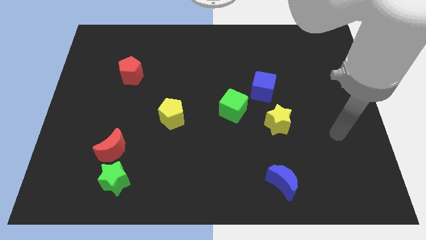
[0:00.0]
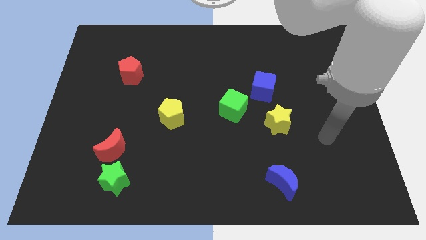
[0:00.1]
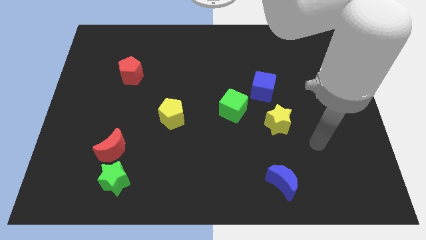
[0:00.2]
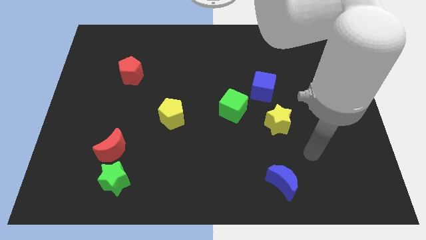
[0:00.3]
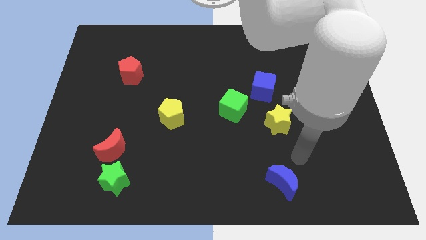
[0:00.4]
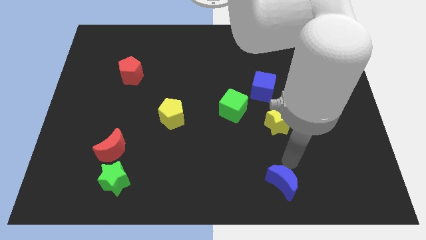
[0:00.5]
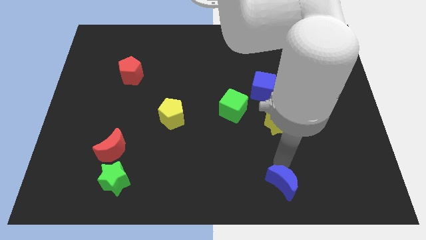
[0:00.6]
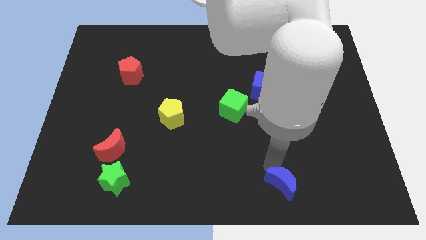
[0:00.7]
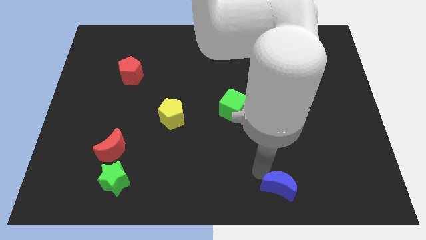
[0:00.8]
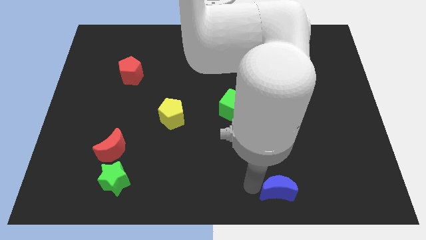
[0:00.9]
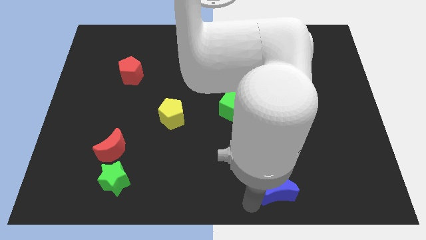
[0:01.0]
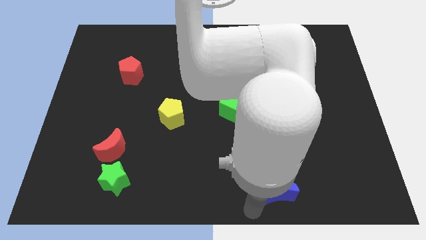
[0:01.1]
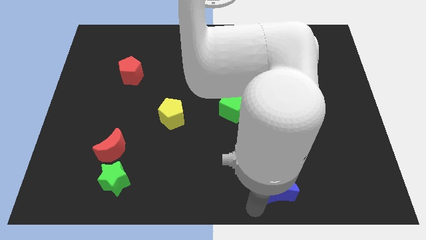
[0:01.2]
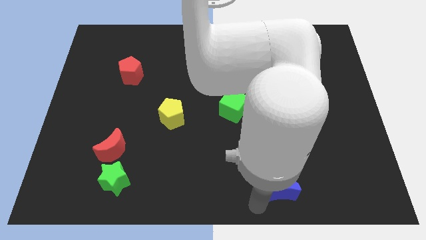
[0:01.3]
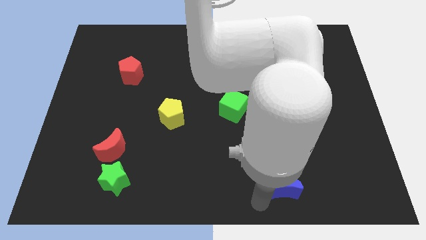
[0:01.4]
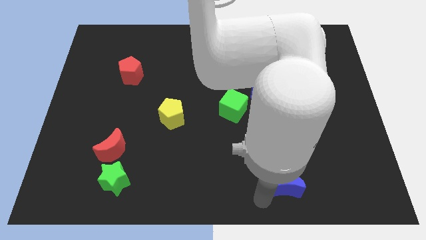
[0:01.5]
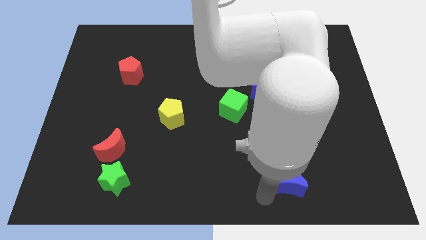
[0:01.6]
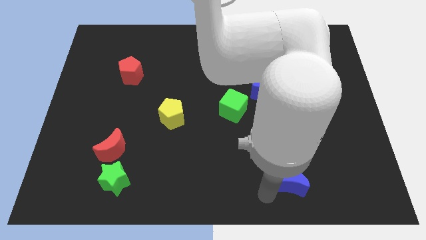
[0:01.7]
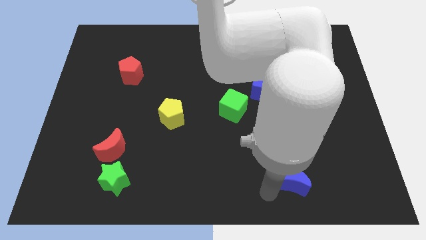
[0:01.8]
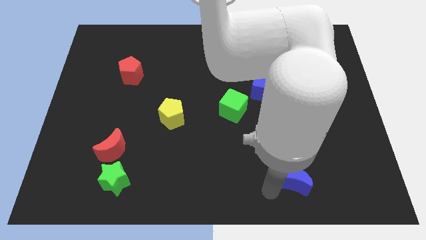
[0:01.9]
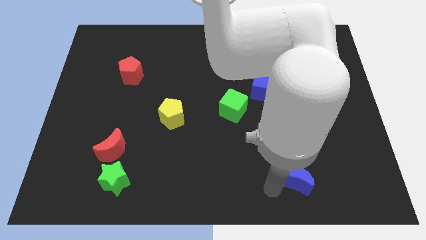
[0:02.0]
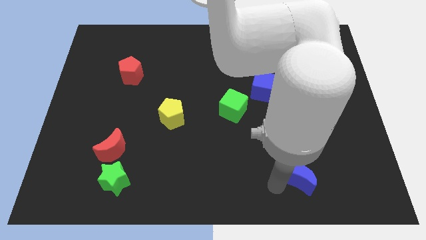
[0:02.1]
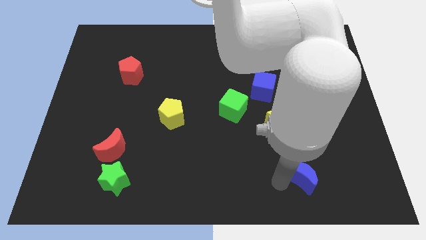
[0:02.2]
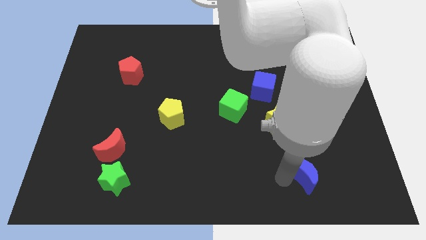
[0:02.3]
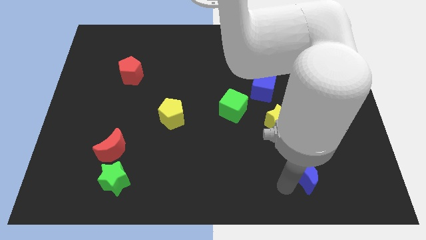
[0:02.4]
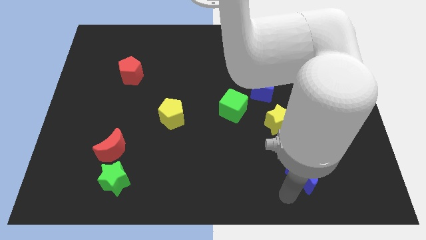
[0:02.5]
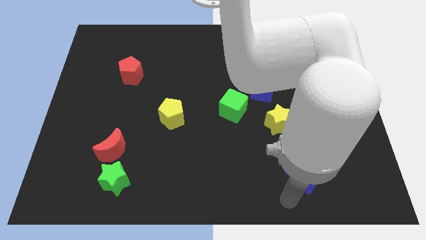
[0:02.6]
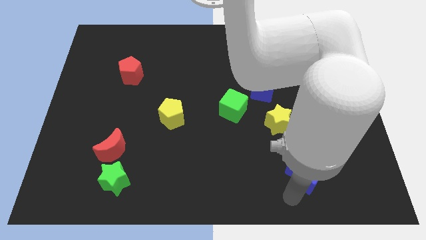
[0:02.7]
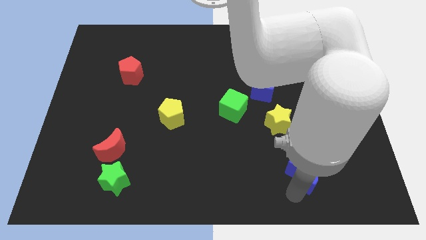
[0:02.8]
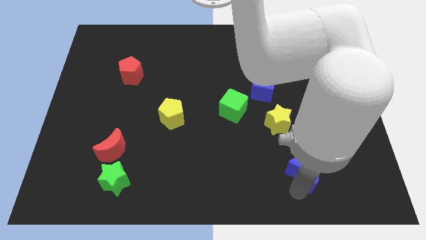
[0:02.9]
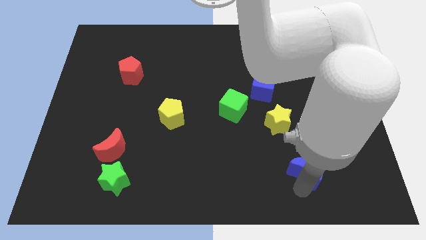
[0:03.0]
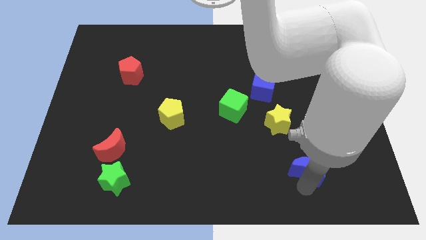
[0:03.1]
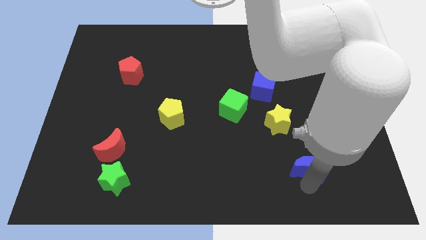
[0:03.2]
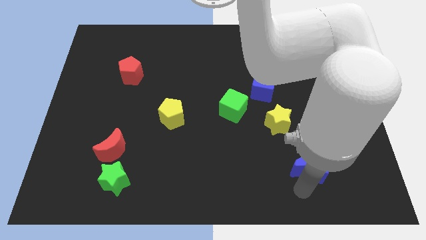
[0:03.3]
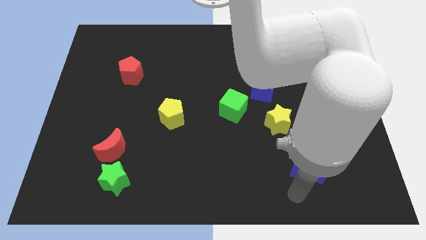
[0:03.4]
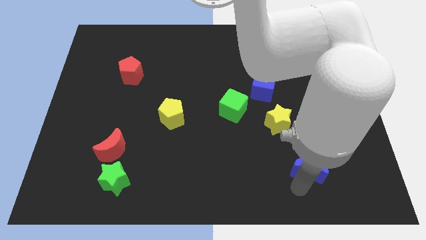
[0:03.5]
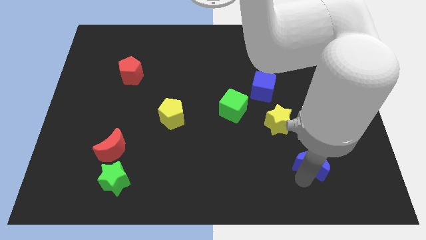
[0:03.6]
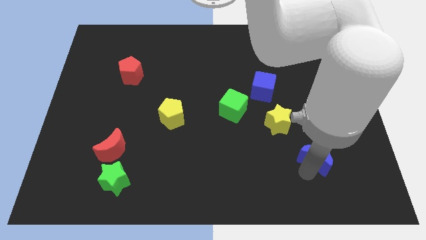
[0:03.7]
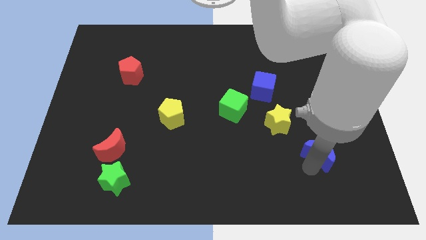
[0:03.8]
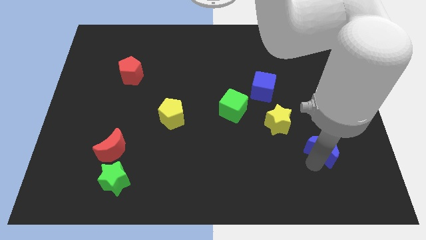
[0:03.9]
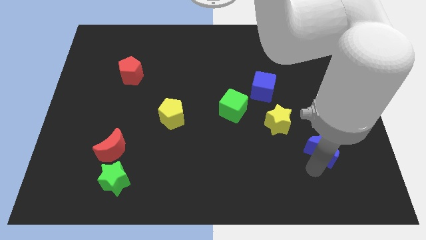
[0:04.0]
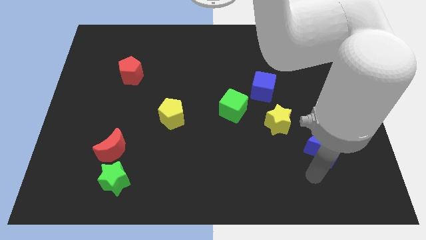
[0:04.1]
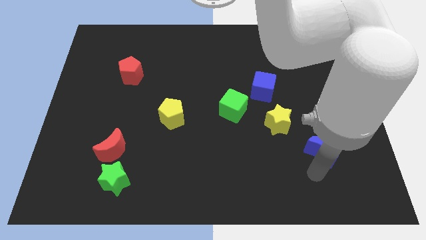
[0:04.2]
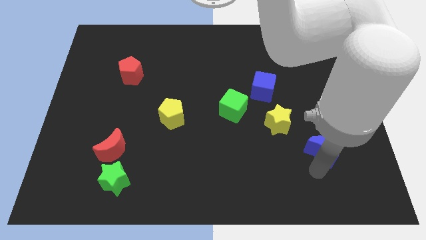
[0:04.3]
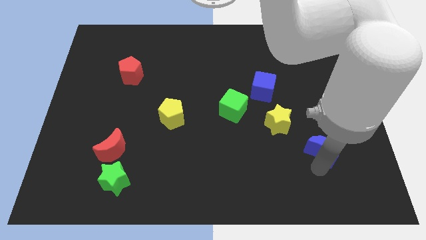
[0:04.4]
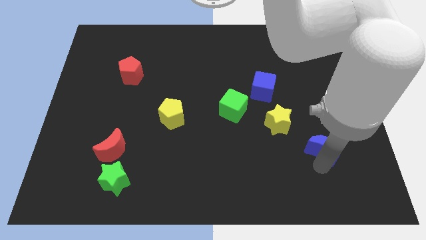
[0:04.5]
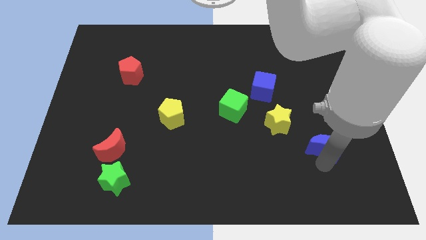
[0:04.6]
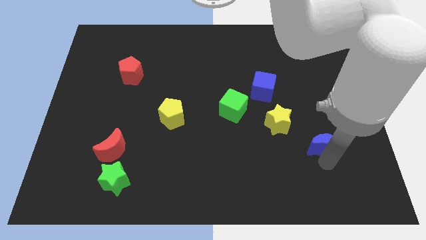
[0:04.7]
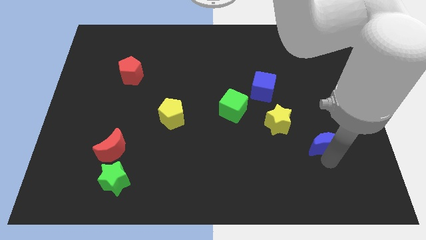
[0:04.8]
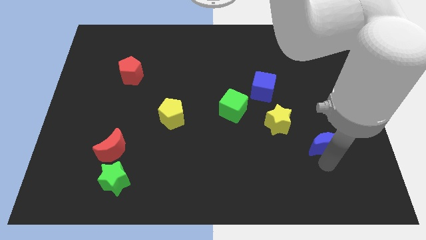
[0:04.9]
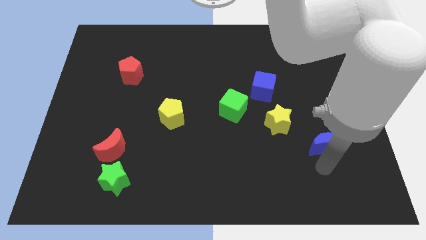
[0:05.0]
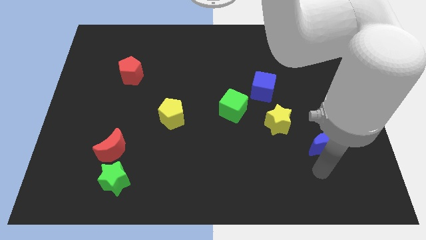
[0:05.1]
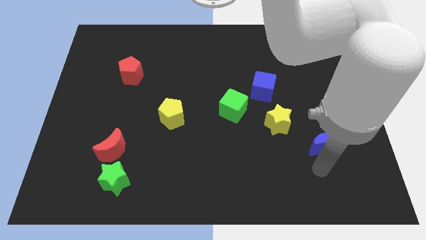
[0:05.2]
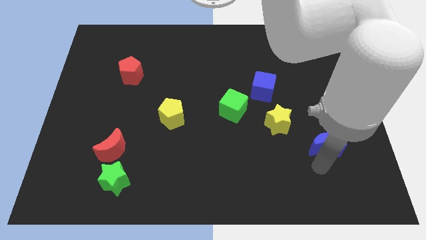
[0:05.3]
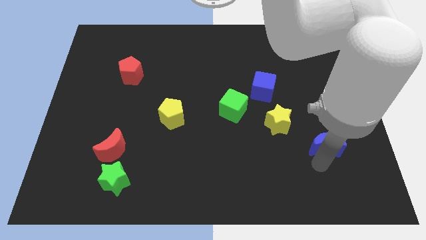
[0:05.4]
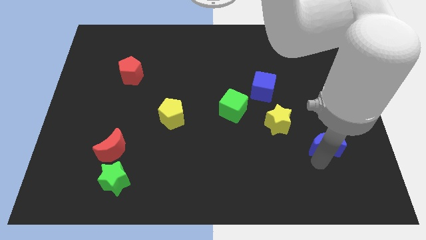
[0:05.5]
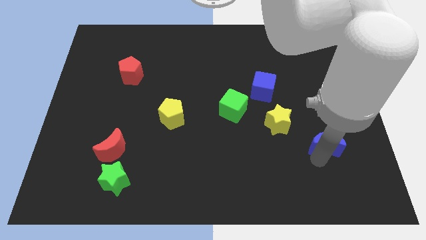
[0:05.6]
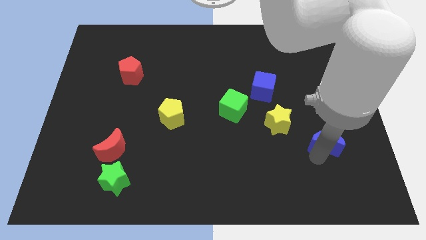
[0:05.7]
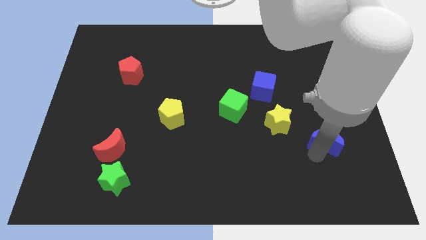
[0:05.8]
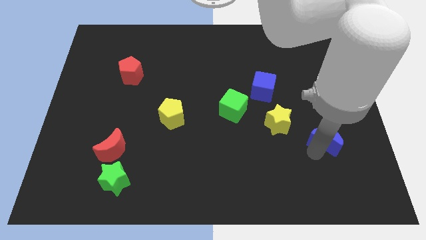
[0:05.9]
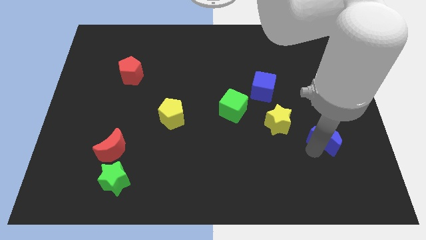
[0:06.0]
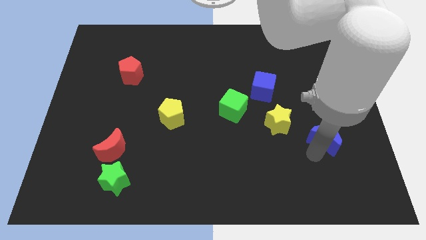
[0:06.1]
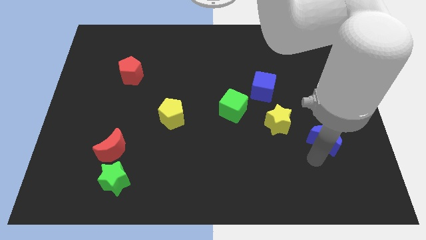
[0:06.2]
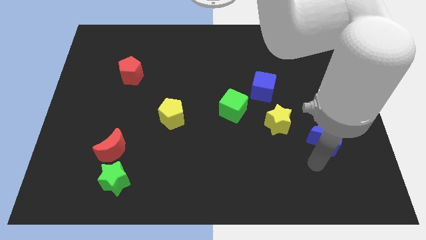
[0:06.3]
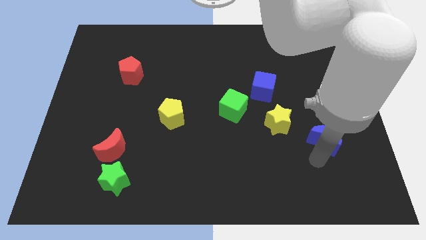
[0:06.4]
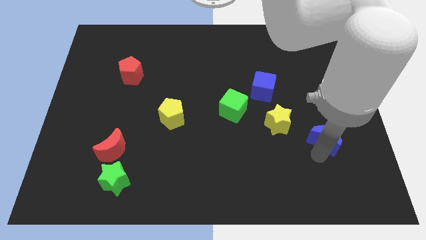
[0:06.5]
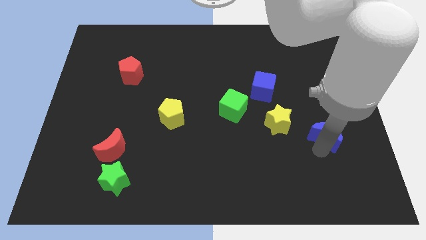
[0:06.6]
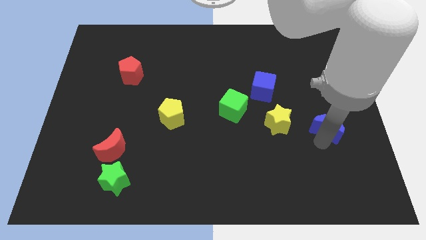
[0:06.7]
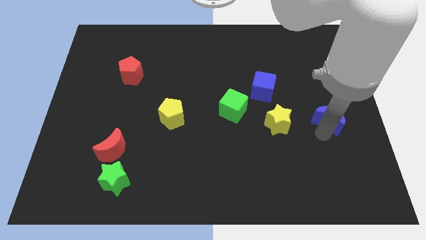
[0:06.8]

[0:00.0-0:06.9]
move the blue moon to the center right
